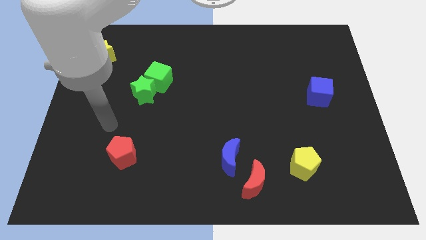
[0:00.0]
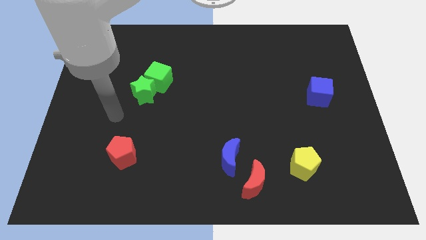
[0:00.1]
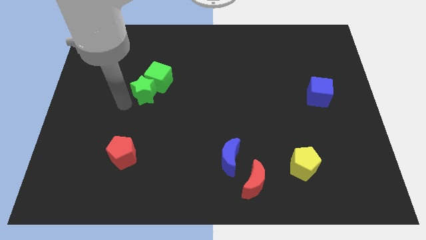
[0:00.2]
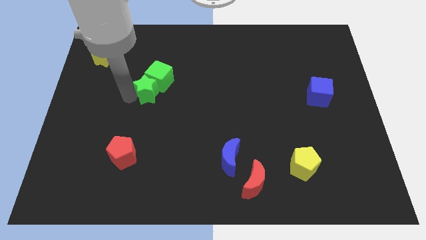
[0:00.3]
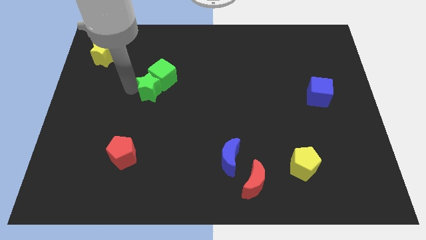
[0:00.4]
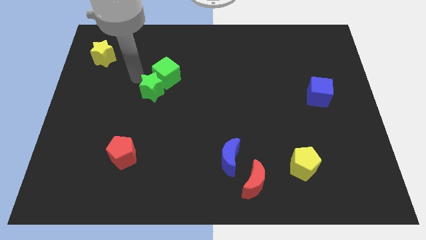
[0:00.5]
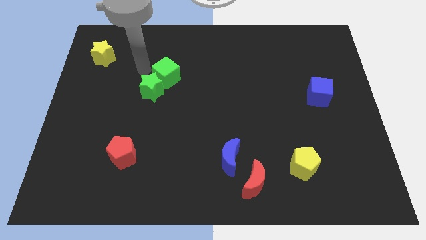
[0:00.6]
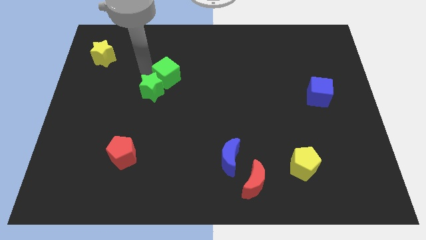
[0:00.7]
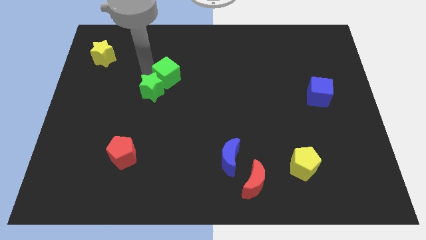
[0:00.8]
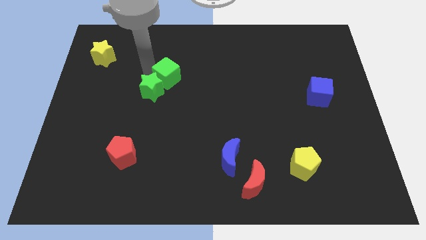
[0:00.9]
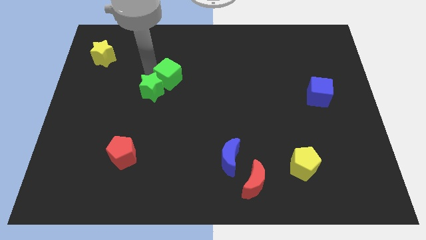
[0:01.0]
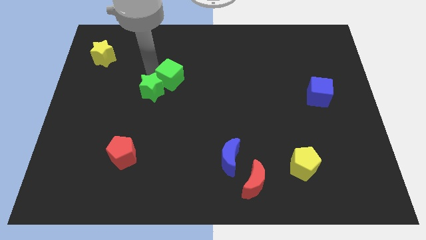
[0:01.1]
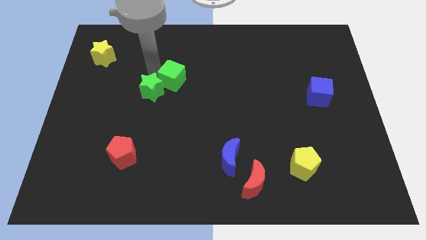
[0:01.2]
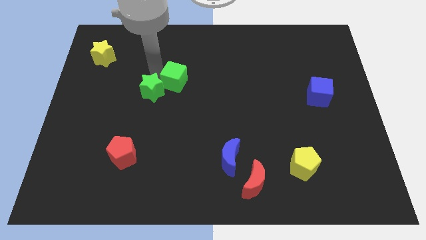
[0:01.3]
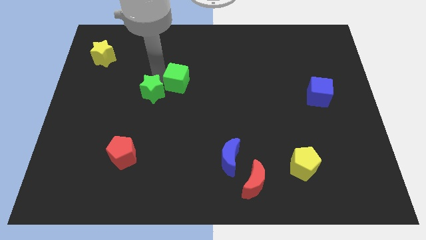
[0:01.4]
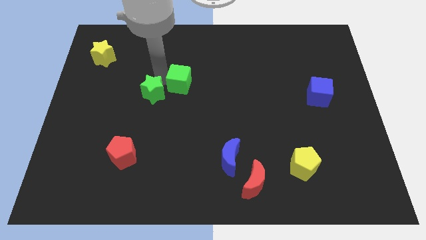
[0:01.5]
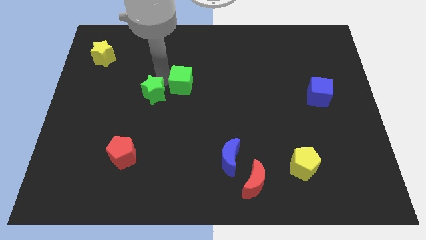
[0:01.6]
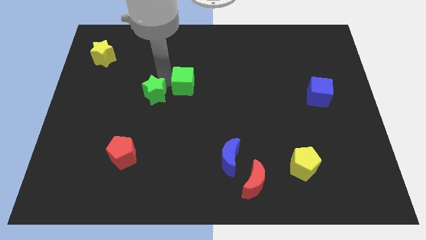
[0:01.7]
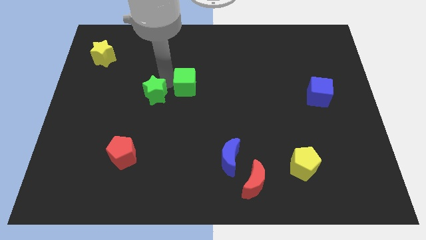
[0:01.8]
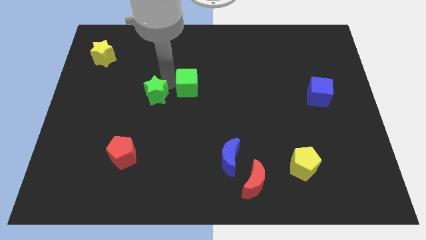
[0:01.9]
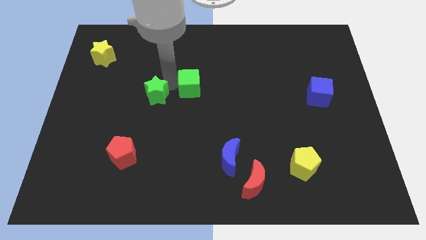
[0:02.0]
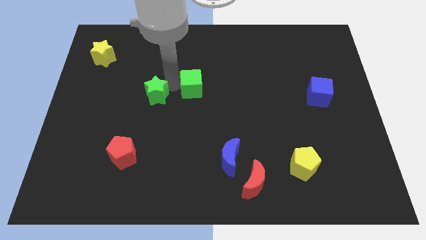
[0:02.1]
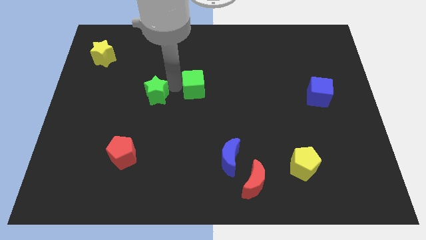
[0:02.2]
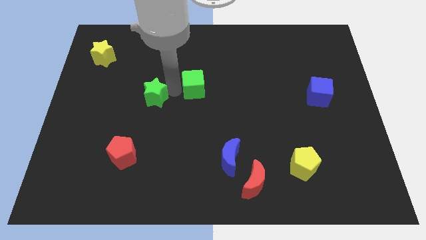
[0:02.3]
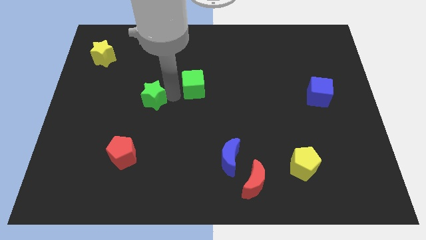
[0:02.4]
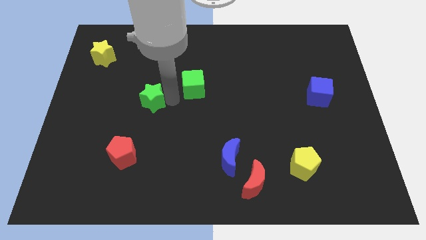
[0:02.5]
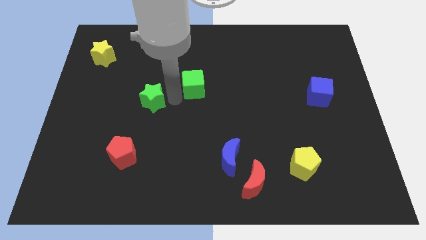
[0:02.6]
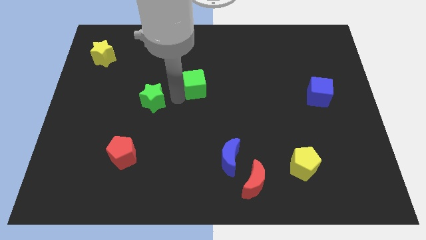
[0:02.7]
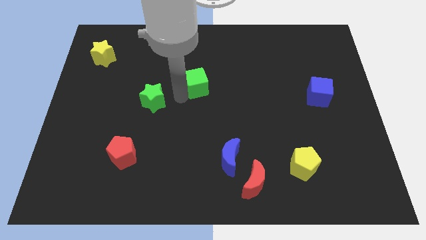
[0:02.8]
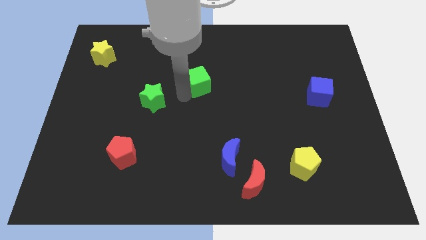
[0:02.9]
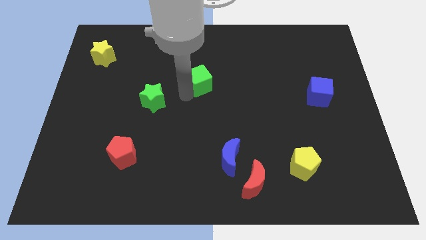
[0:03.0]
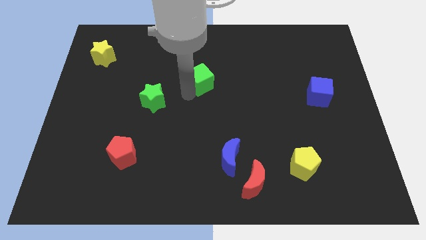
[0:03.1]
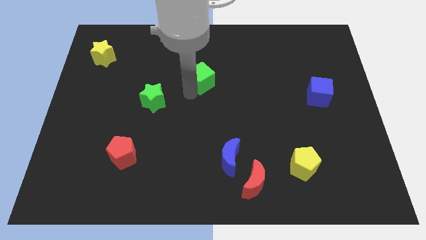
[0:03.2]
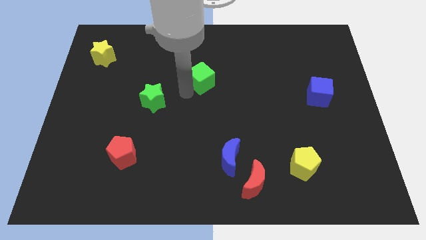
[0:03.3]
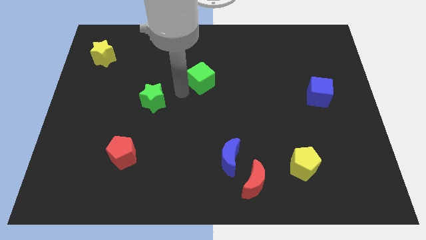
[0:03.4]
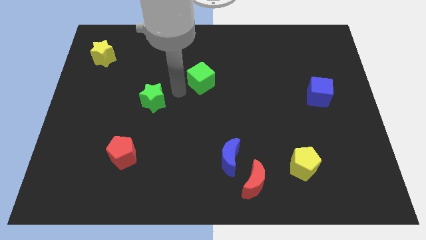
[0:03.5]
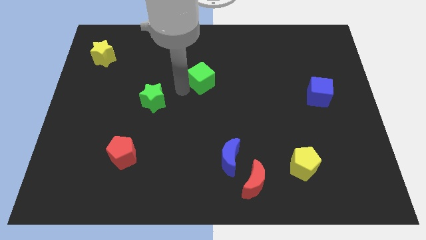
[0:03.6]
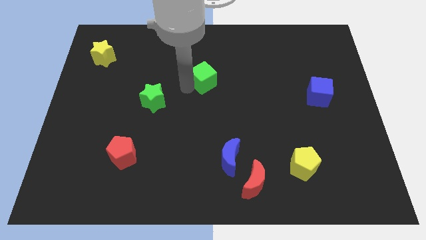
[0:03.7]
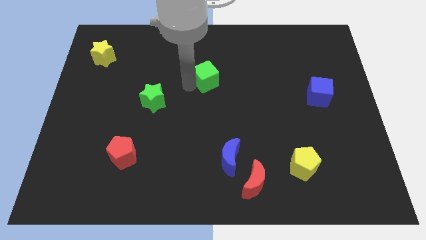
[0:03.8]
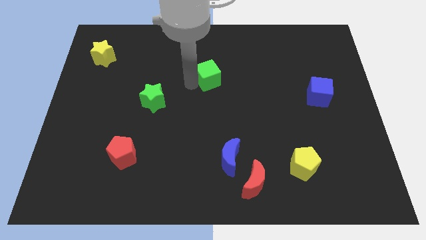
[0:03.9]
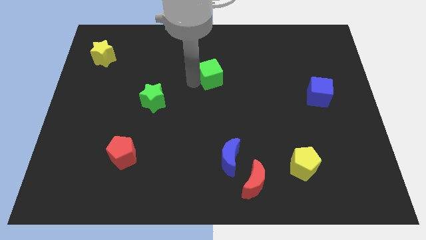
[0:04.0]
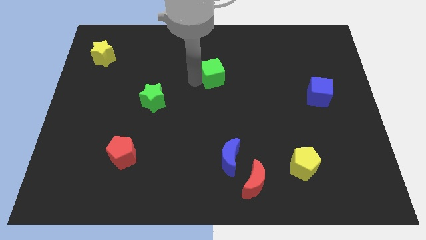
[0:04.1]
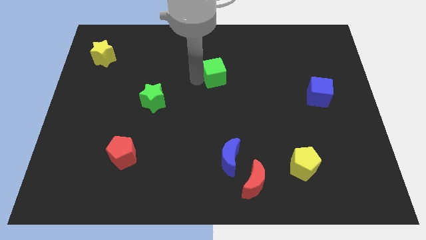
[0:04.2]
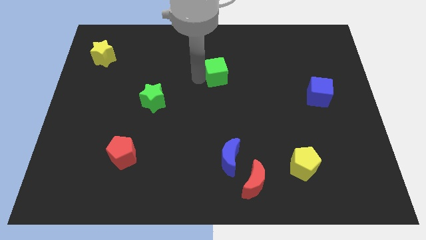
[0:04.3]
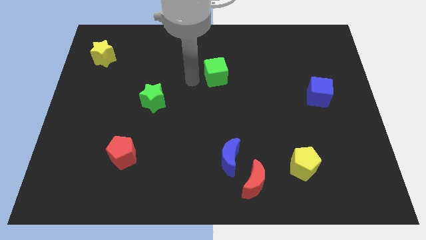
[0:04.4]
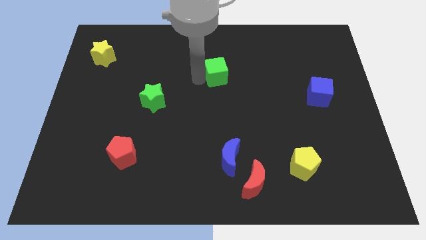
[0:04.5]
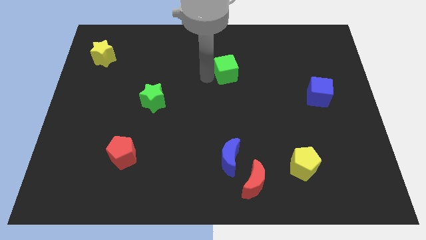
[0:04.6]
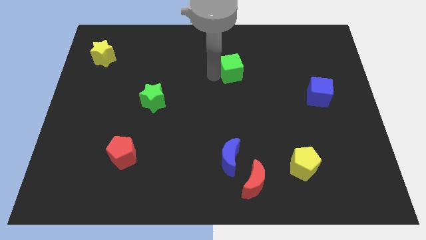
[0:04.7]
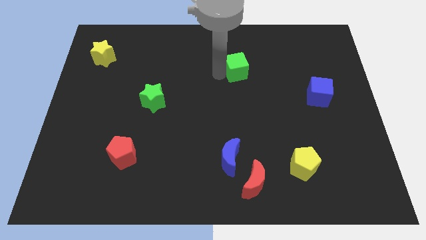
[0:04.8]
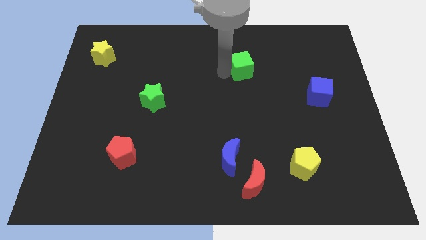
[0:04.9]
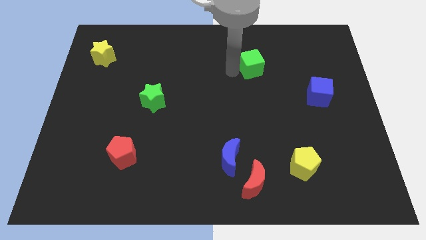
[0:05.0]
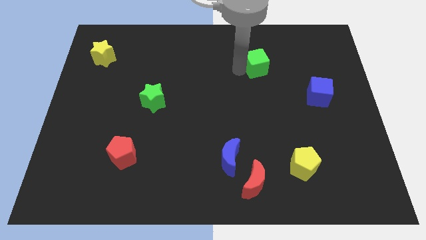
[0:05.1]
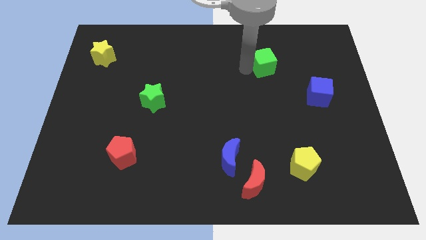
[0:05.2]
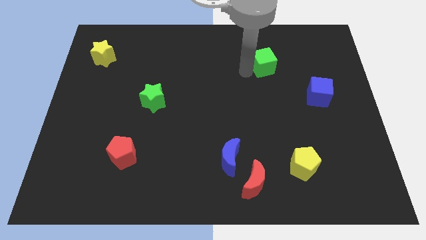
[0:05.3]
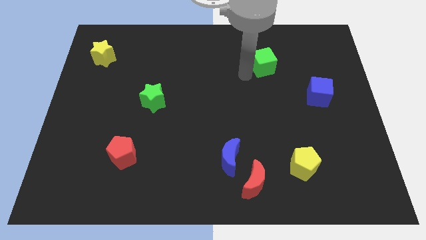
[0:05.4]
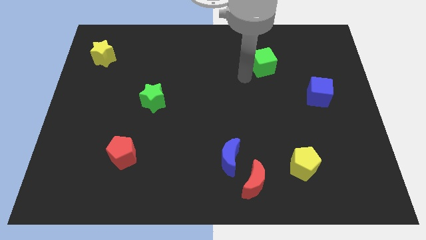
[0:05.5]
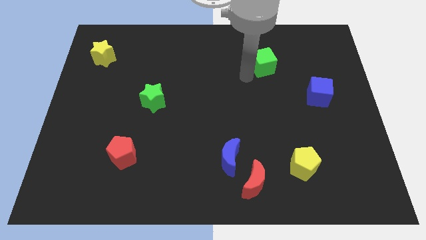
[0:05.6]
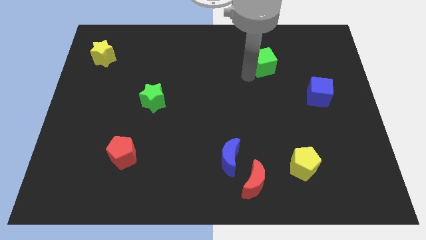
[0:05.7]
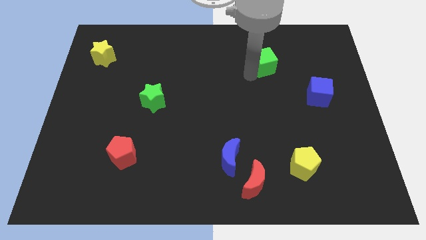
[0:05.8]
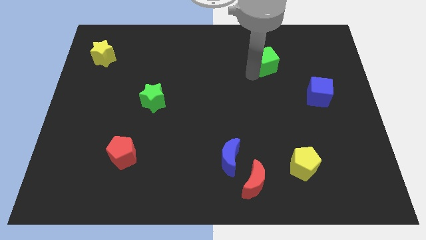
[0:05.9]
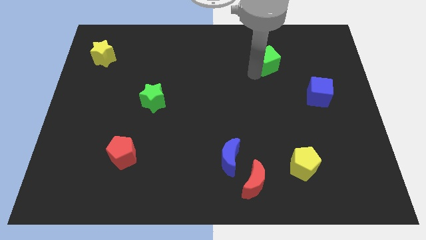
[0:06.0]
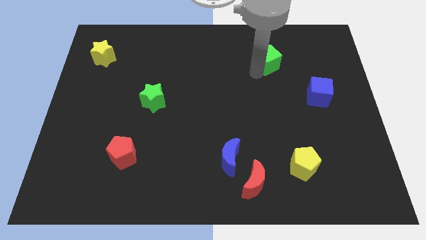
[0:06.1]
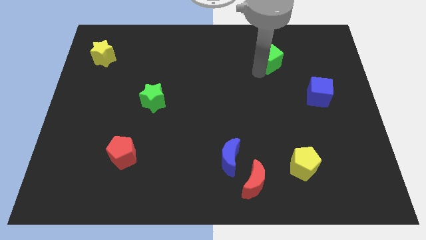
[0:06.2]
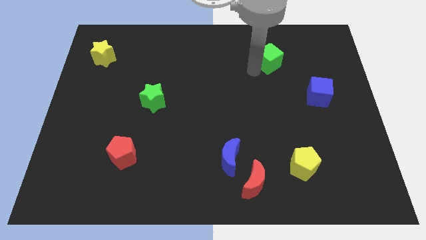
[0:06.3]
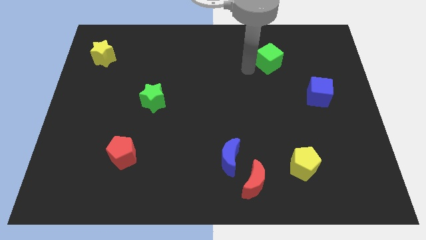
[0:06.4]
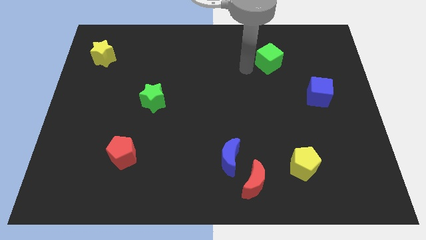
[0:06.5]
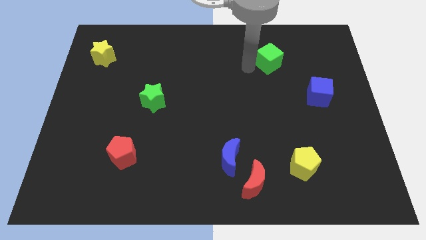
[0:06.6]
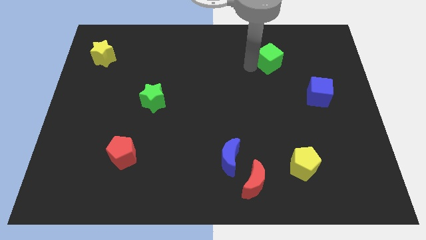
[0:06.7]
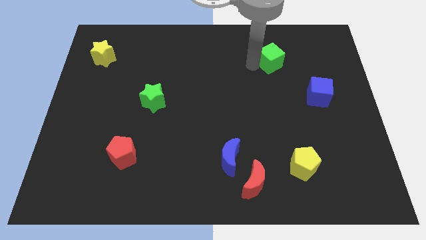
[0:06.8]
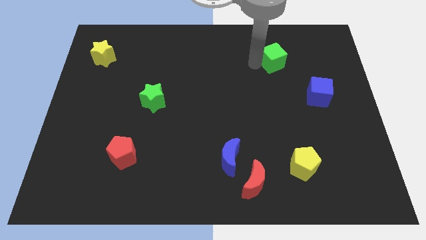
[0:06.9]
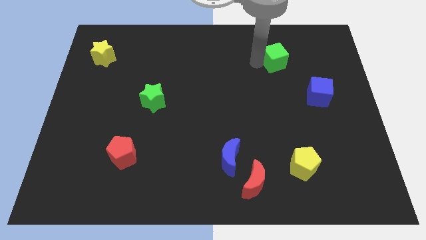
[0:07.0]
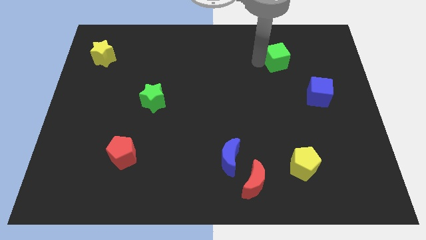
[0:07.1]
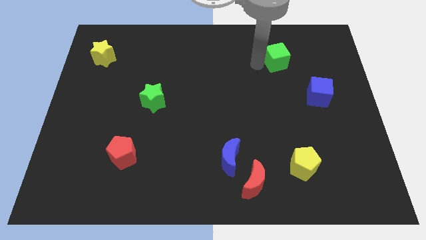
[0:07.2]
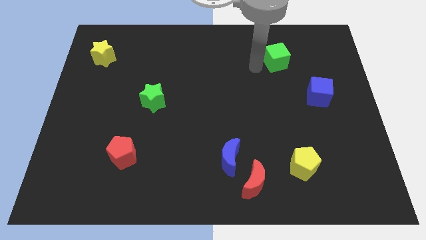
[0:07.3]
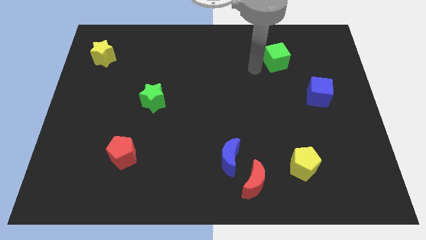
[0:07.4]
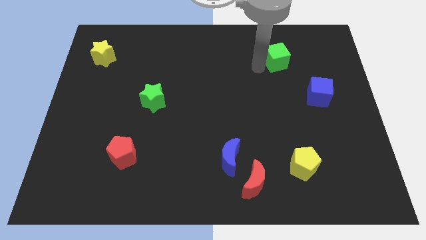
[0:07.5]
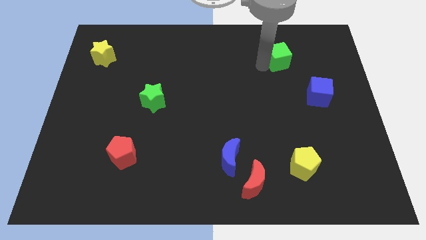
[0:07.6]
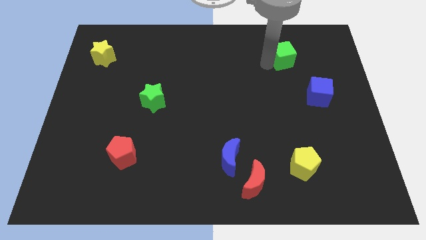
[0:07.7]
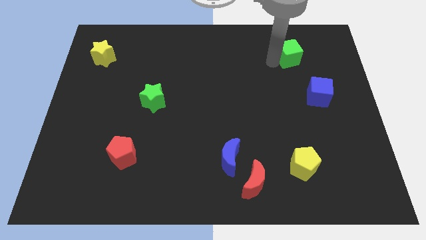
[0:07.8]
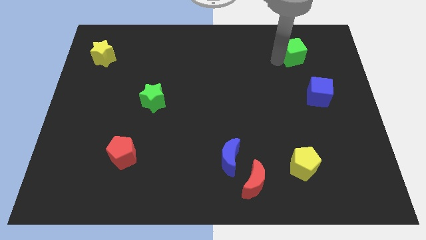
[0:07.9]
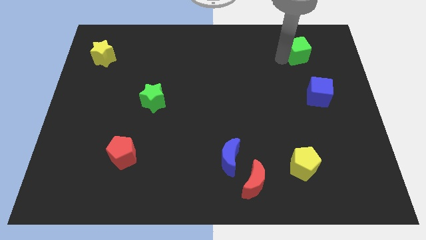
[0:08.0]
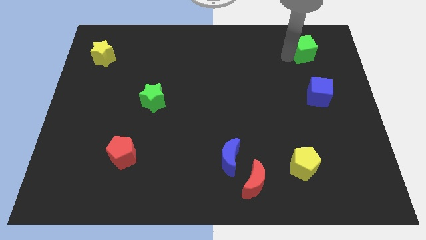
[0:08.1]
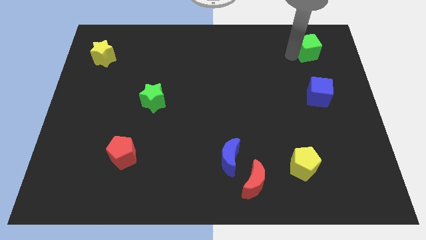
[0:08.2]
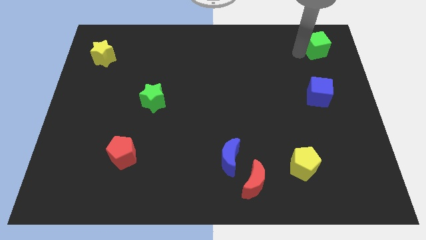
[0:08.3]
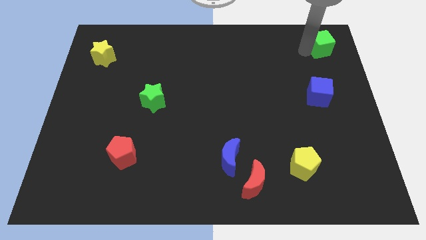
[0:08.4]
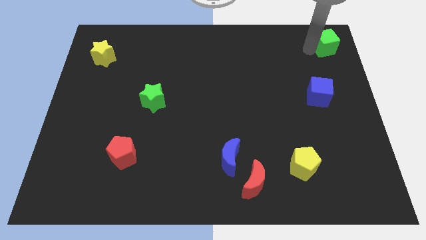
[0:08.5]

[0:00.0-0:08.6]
slide the green cube to the top right
